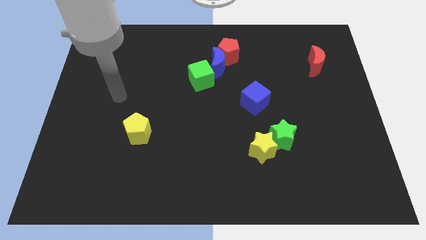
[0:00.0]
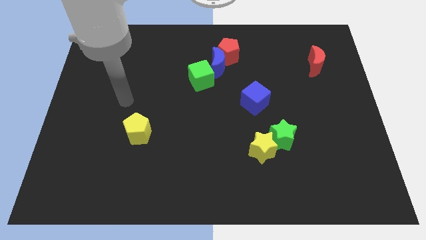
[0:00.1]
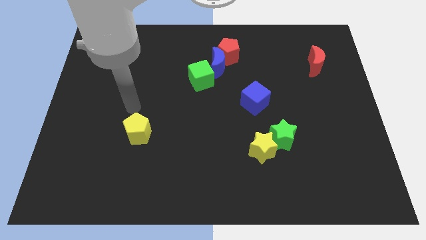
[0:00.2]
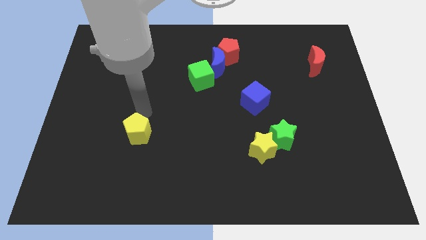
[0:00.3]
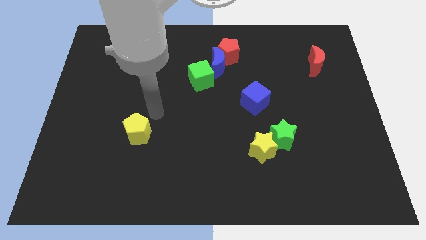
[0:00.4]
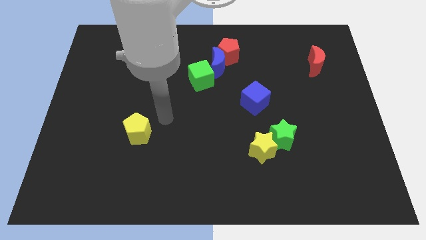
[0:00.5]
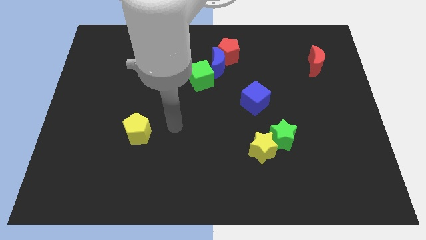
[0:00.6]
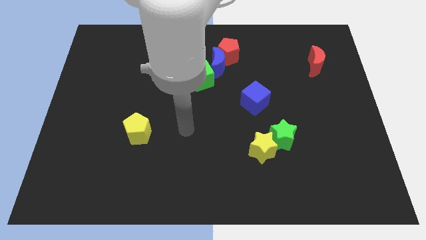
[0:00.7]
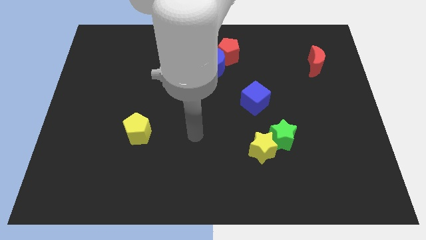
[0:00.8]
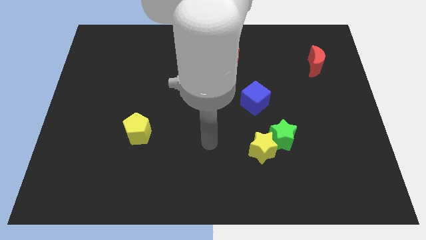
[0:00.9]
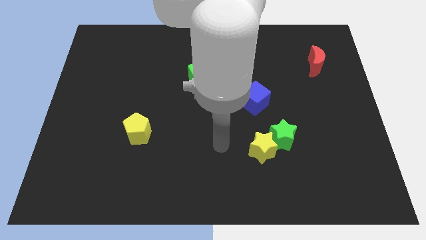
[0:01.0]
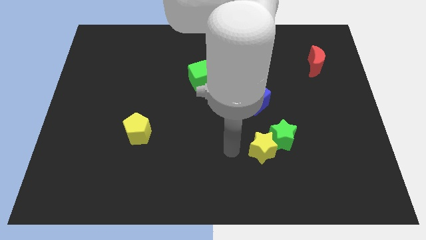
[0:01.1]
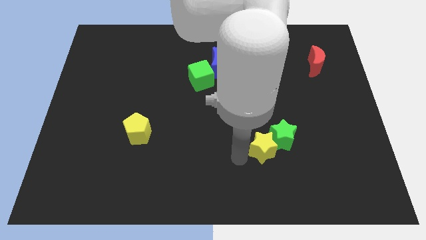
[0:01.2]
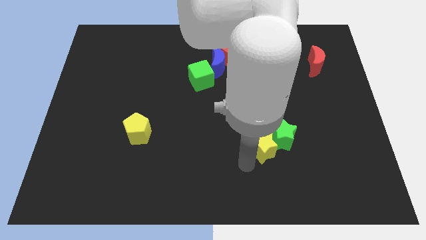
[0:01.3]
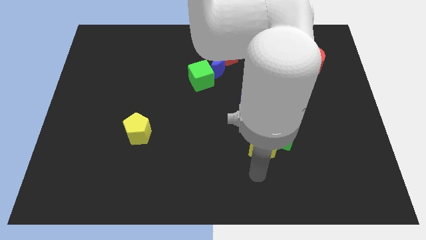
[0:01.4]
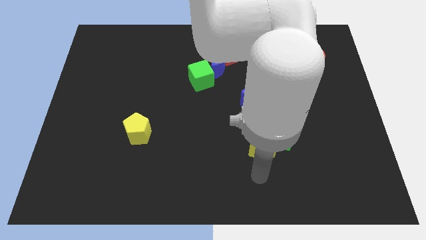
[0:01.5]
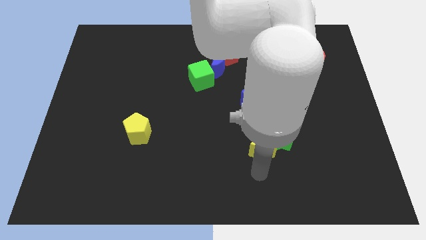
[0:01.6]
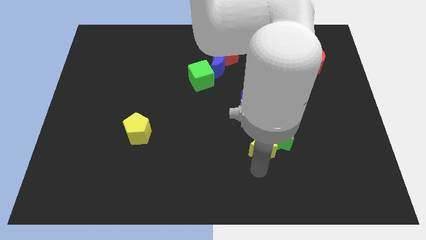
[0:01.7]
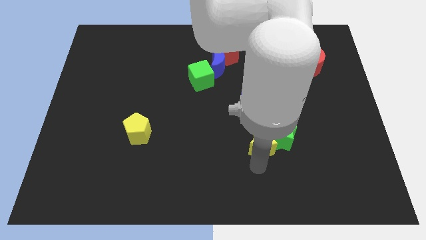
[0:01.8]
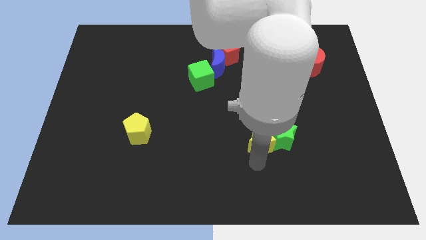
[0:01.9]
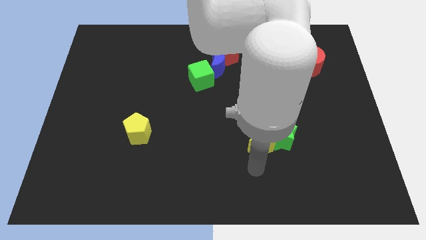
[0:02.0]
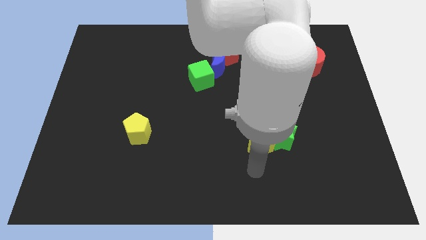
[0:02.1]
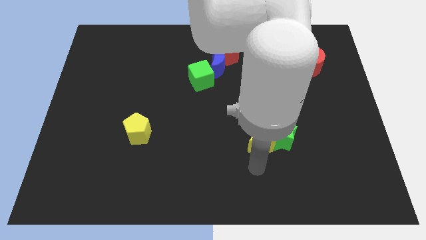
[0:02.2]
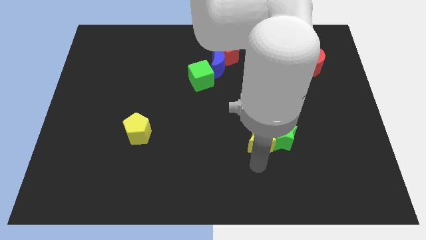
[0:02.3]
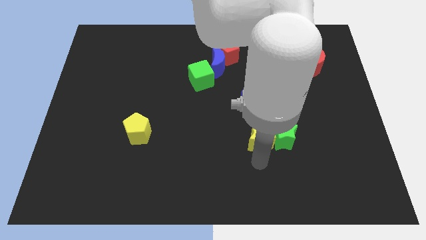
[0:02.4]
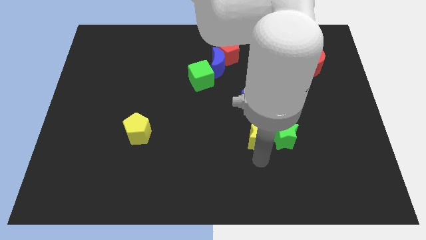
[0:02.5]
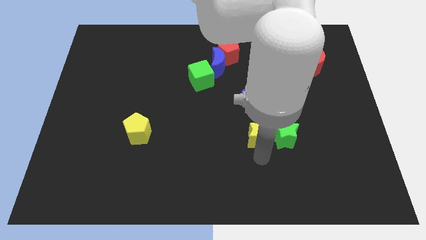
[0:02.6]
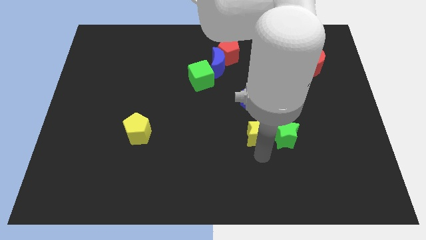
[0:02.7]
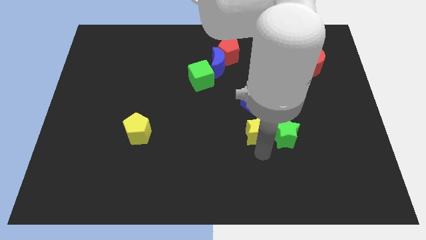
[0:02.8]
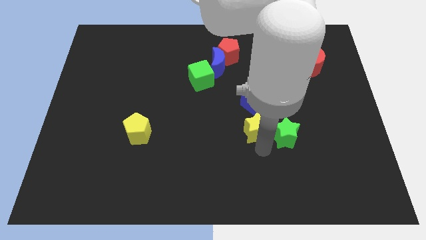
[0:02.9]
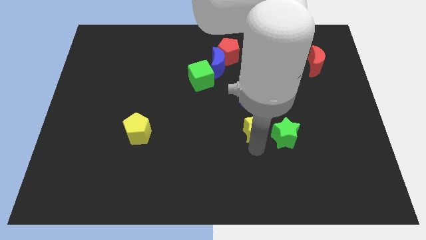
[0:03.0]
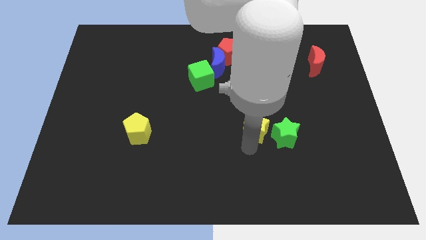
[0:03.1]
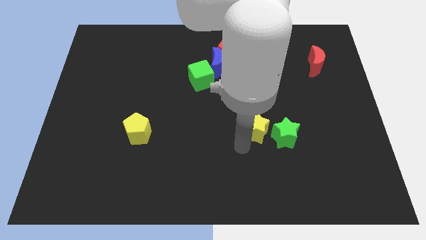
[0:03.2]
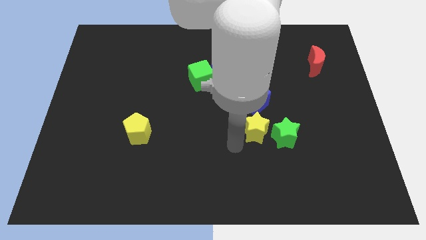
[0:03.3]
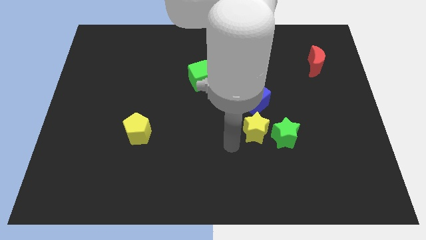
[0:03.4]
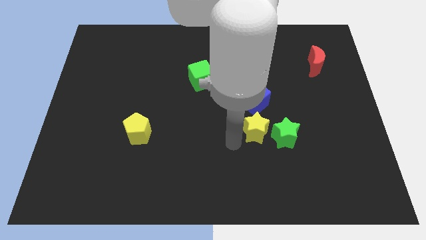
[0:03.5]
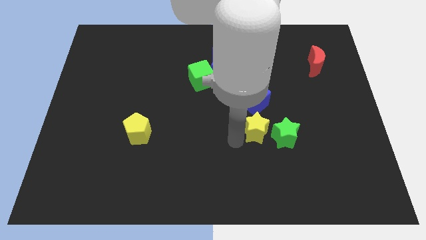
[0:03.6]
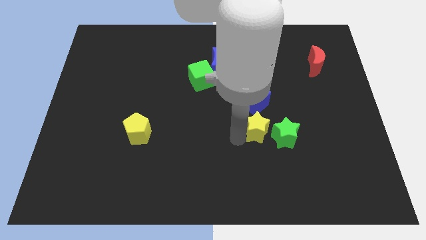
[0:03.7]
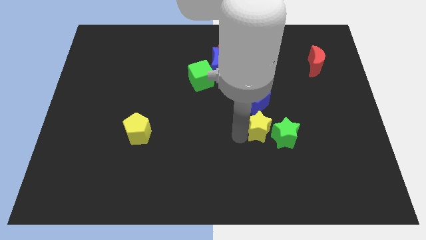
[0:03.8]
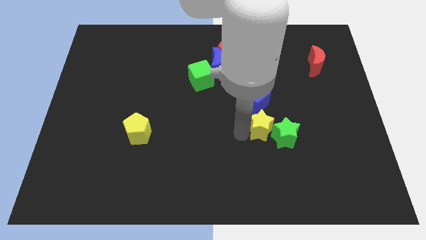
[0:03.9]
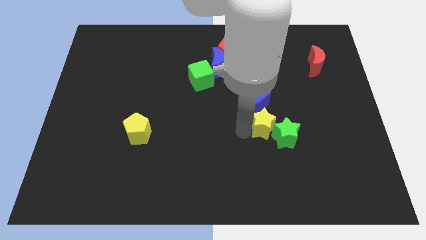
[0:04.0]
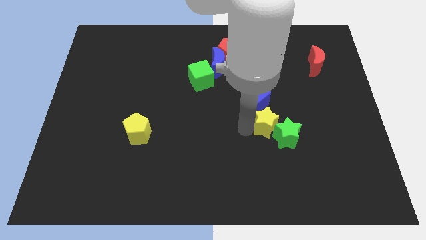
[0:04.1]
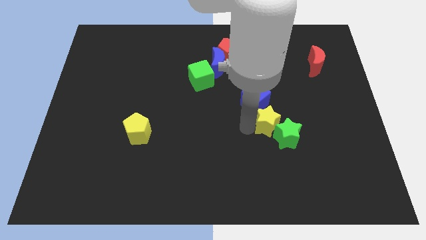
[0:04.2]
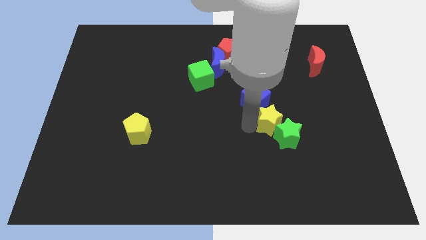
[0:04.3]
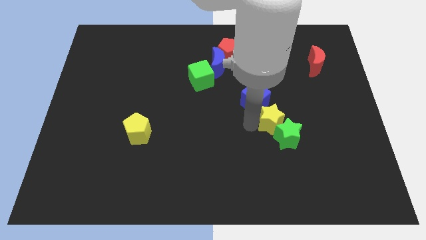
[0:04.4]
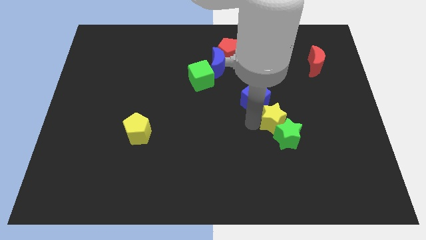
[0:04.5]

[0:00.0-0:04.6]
slightly slide the yellow star up and then right

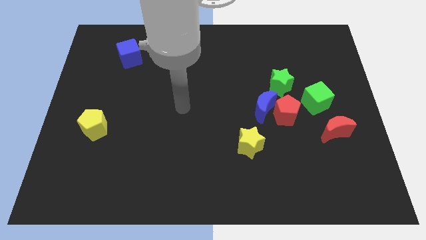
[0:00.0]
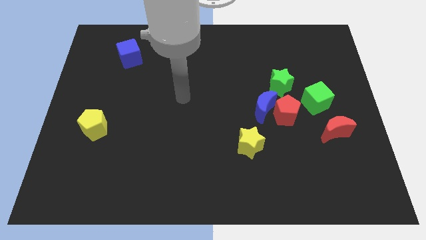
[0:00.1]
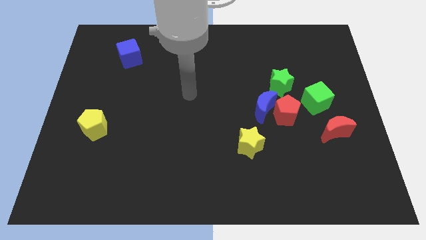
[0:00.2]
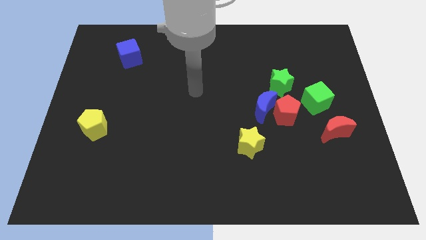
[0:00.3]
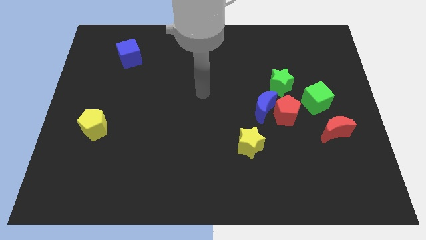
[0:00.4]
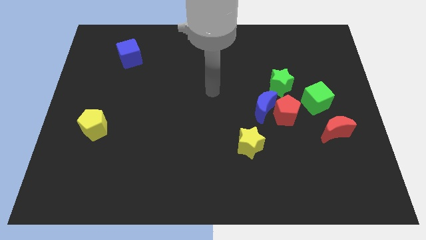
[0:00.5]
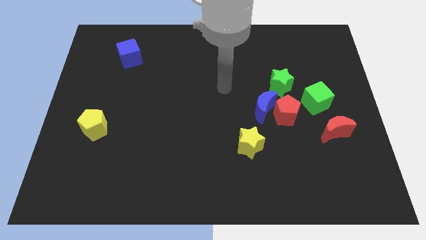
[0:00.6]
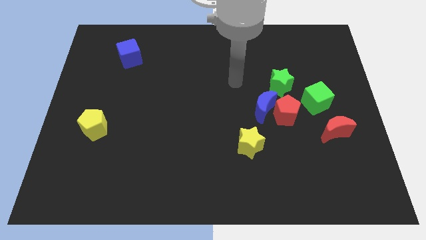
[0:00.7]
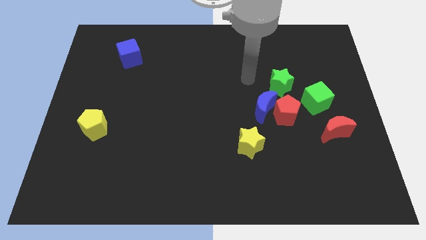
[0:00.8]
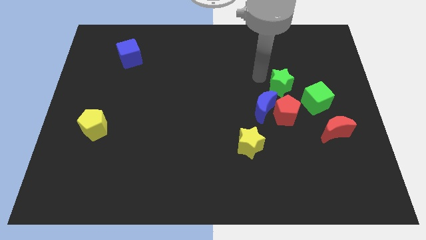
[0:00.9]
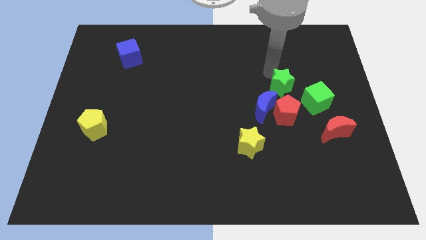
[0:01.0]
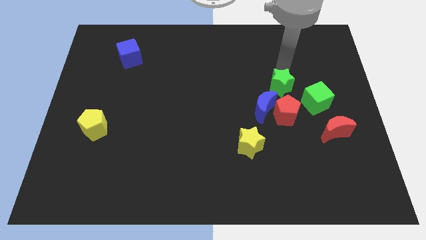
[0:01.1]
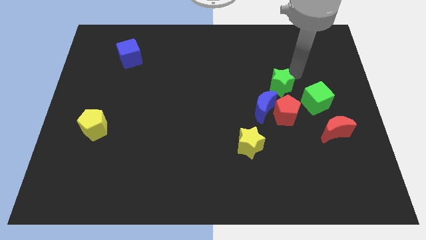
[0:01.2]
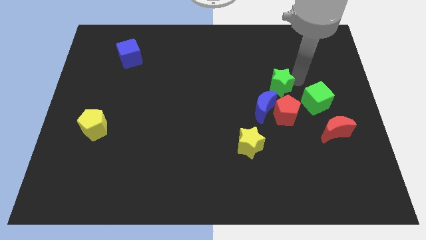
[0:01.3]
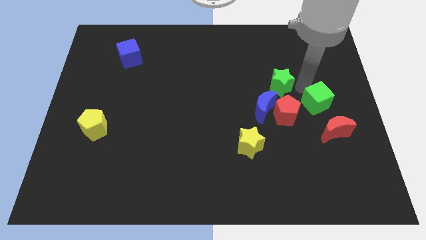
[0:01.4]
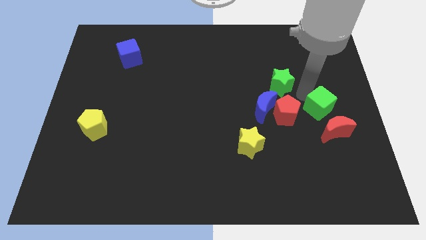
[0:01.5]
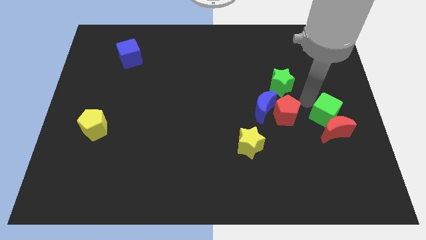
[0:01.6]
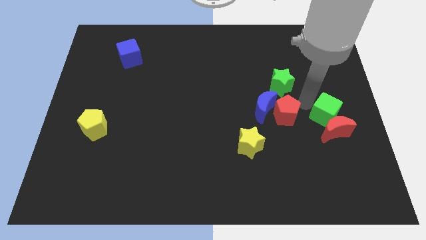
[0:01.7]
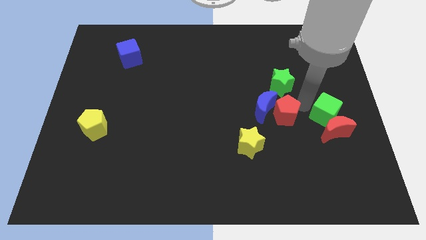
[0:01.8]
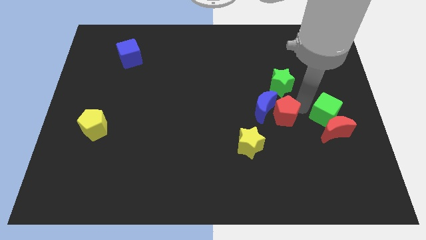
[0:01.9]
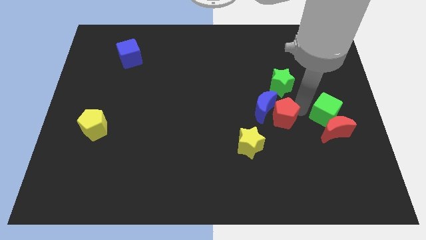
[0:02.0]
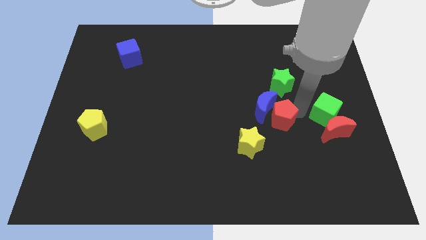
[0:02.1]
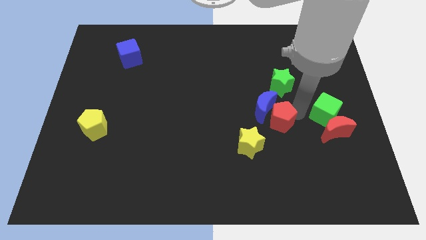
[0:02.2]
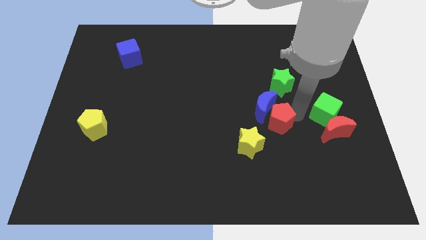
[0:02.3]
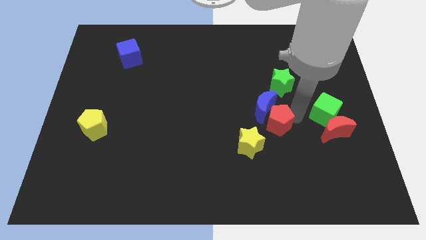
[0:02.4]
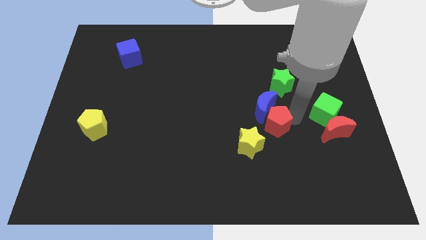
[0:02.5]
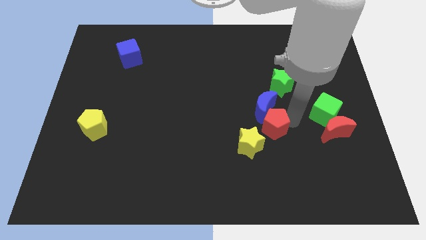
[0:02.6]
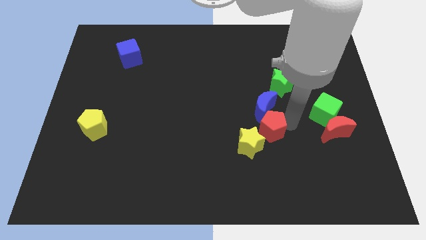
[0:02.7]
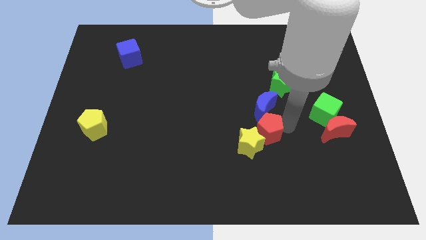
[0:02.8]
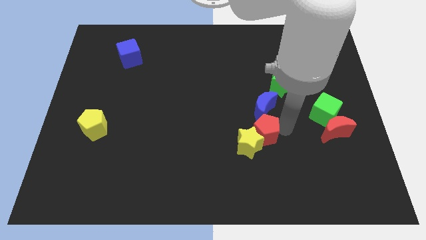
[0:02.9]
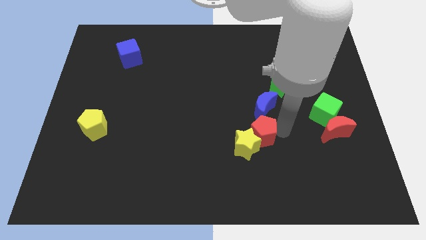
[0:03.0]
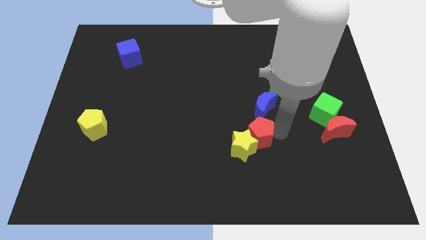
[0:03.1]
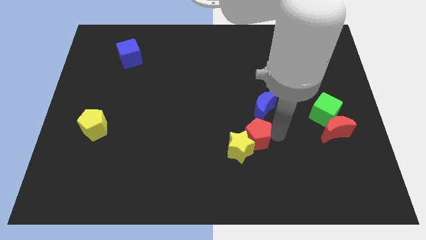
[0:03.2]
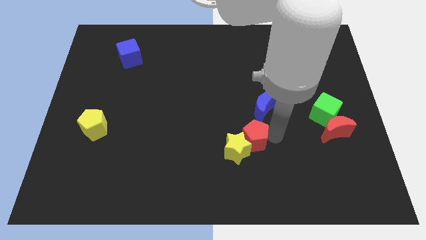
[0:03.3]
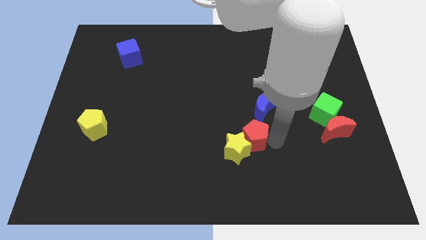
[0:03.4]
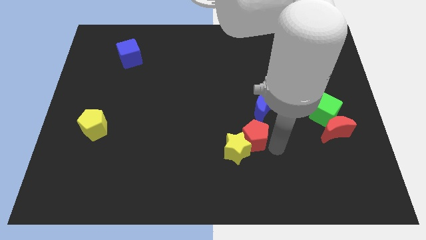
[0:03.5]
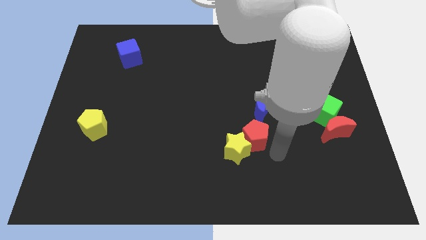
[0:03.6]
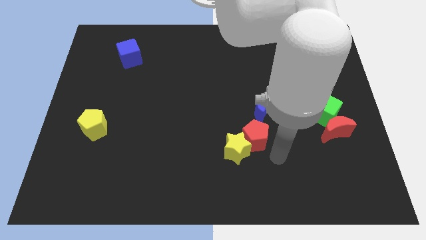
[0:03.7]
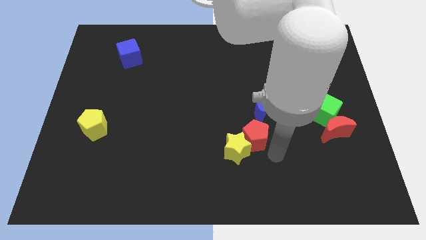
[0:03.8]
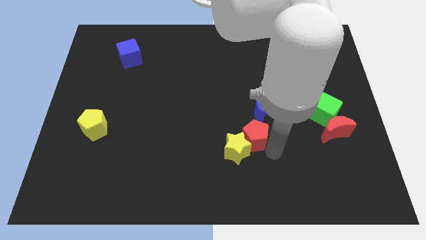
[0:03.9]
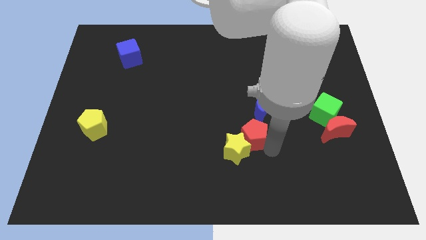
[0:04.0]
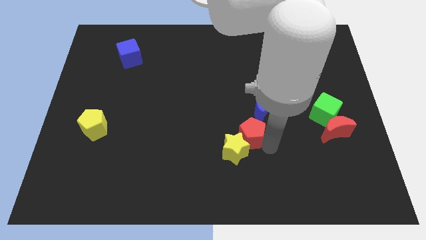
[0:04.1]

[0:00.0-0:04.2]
slightly move the red pentagon left
